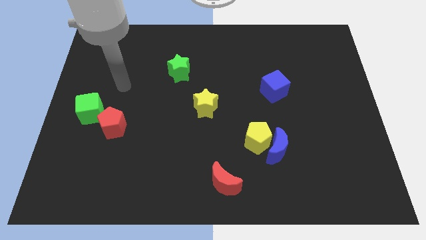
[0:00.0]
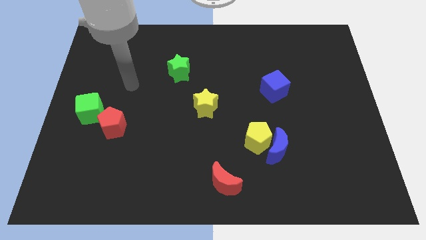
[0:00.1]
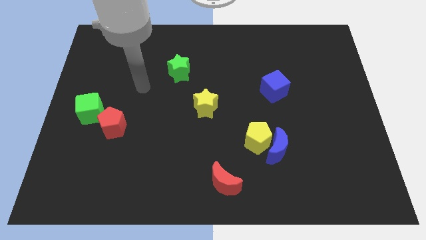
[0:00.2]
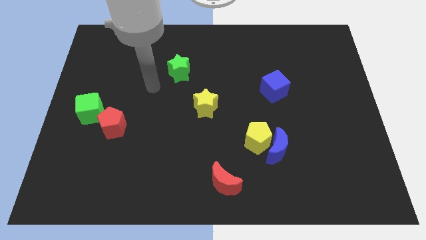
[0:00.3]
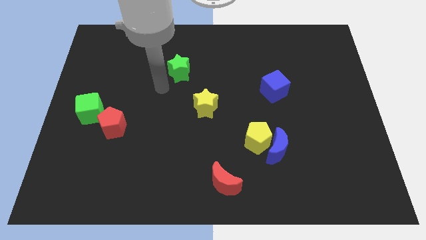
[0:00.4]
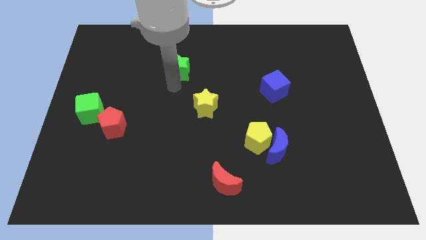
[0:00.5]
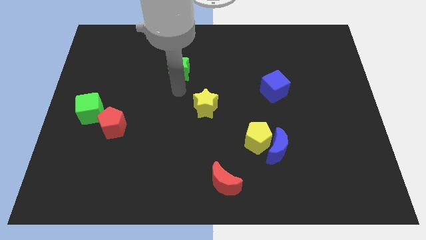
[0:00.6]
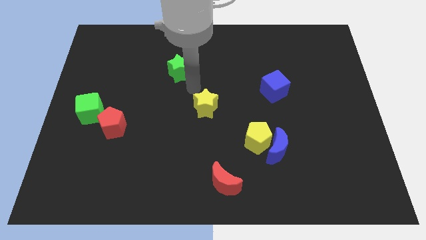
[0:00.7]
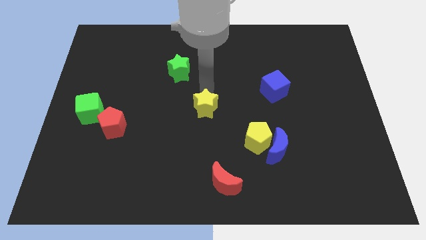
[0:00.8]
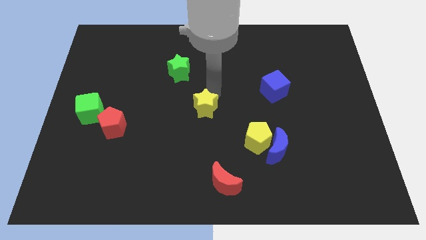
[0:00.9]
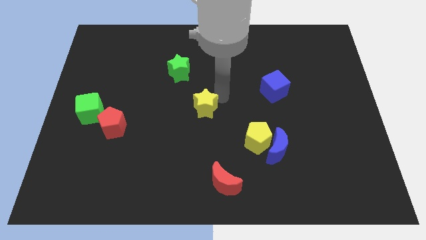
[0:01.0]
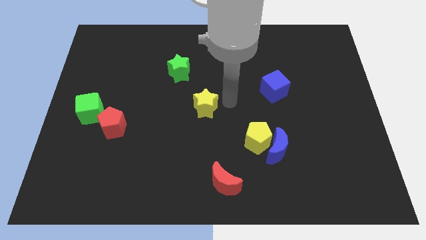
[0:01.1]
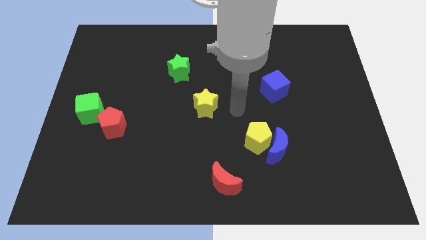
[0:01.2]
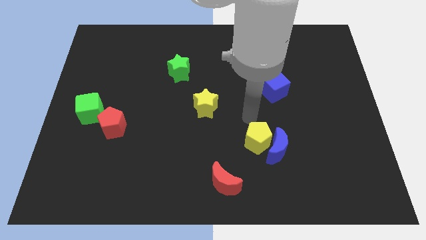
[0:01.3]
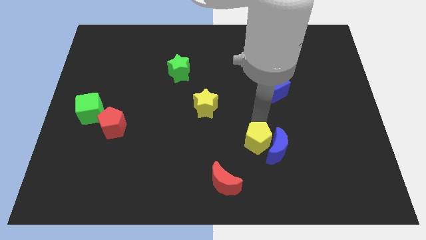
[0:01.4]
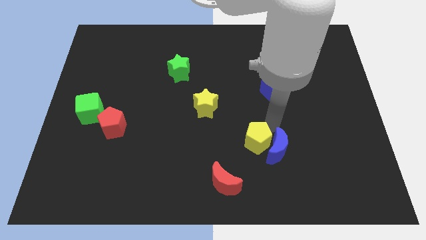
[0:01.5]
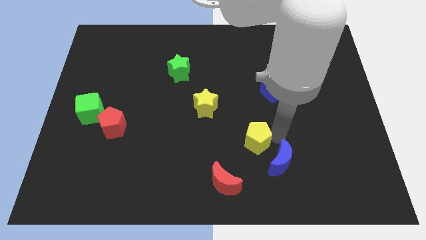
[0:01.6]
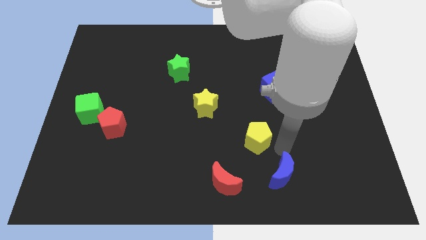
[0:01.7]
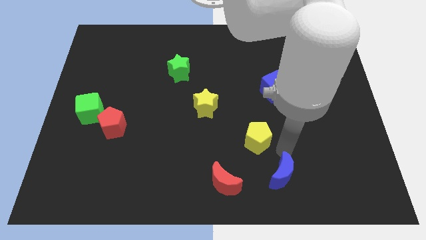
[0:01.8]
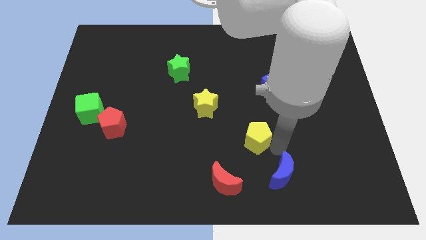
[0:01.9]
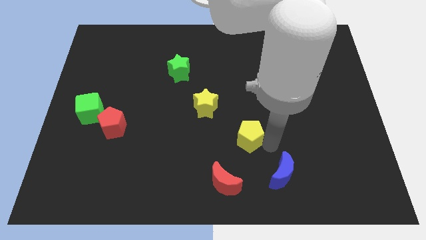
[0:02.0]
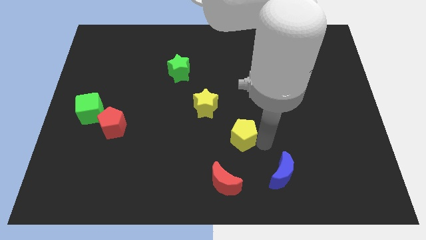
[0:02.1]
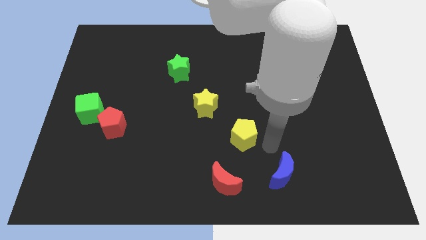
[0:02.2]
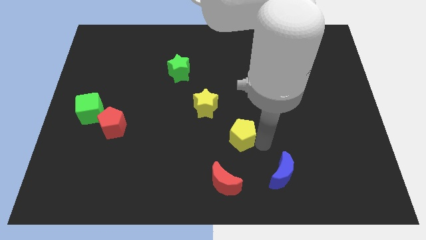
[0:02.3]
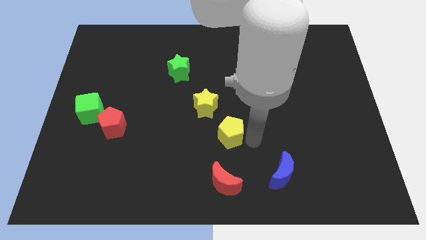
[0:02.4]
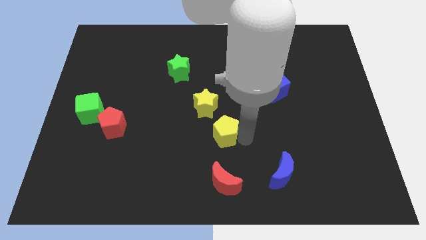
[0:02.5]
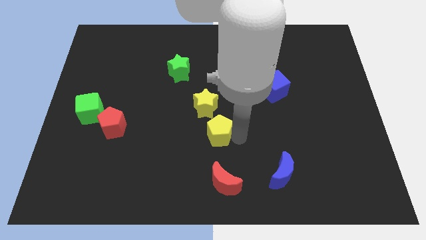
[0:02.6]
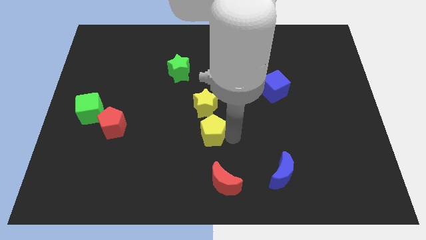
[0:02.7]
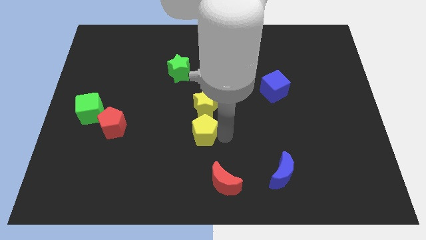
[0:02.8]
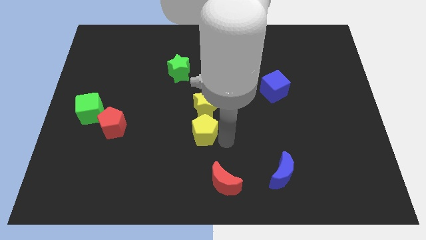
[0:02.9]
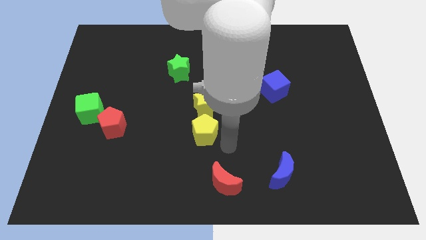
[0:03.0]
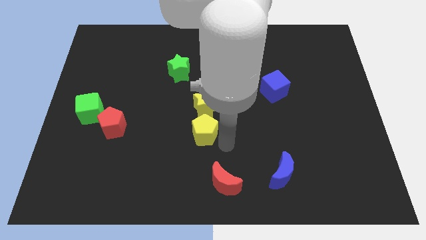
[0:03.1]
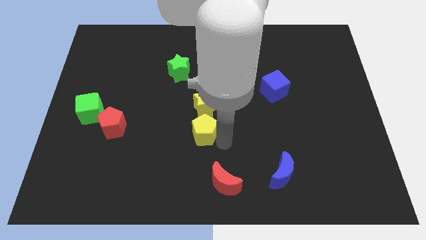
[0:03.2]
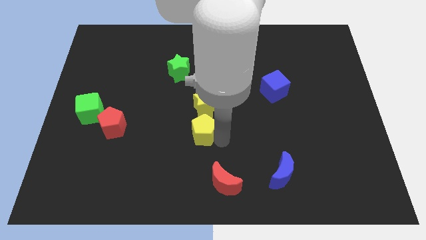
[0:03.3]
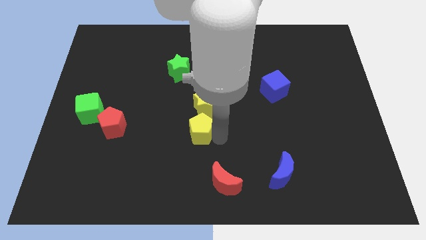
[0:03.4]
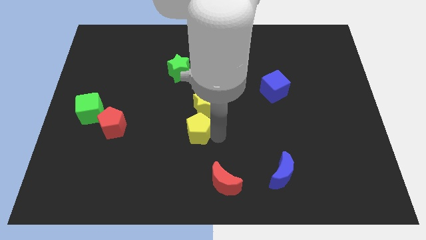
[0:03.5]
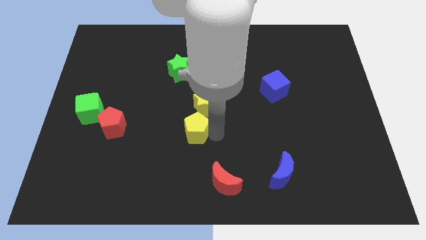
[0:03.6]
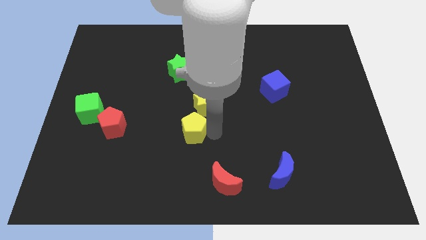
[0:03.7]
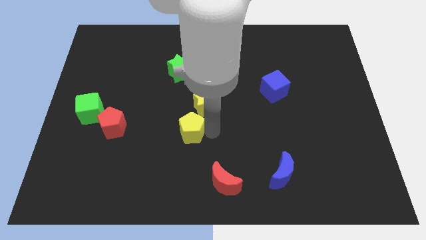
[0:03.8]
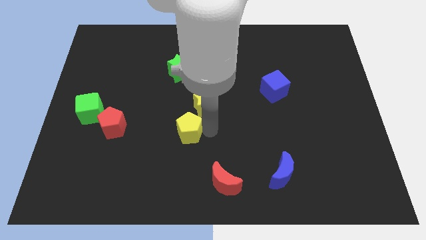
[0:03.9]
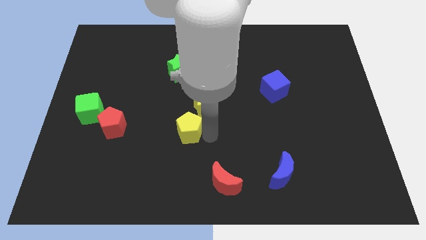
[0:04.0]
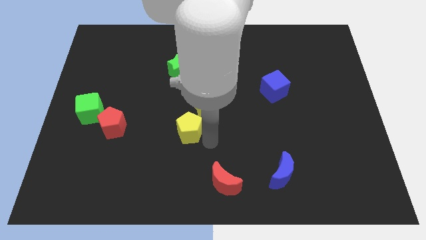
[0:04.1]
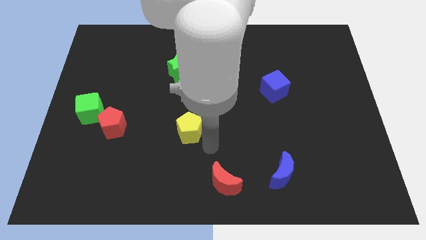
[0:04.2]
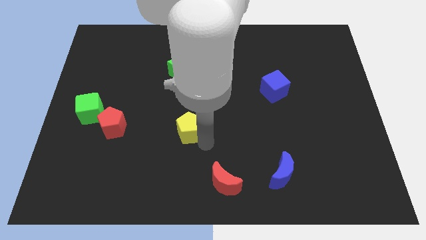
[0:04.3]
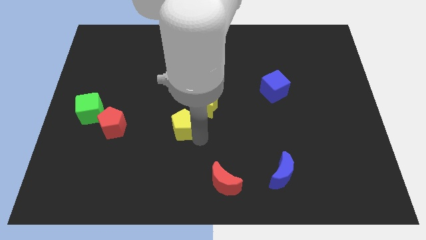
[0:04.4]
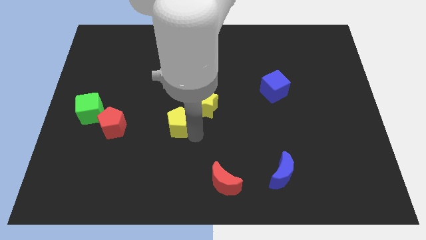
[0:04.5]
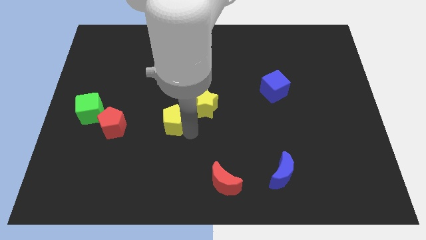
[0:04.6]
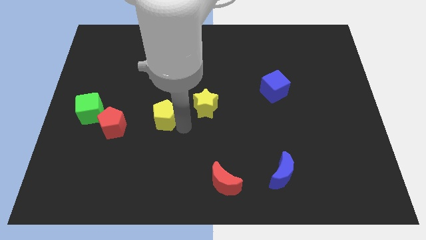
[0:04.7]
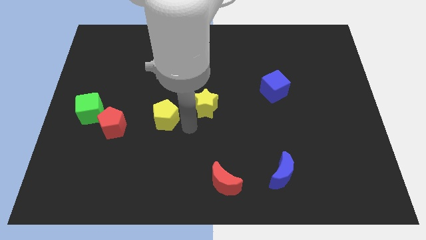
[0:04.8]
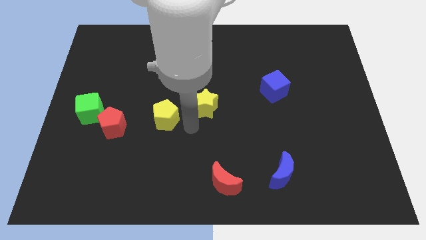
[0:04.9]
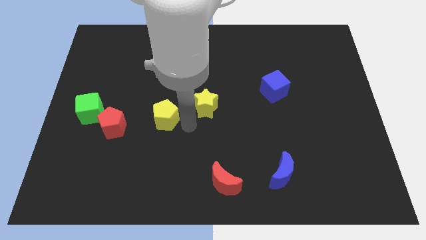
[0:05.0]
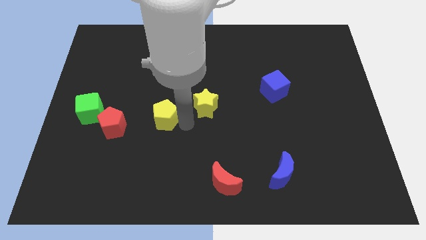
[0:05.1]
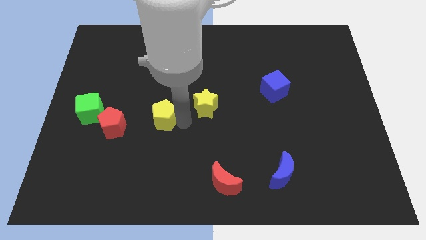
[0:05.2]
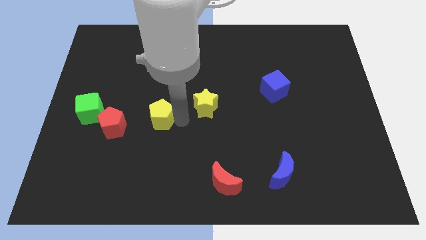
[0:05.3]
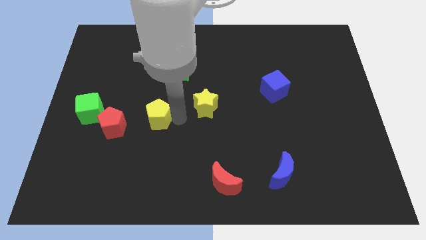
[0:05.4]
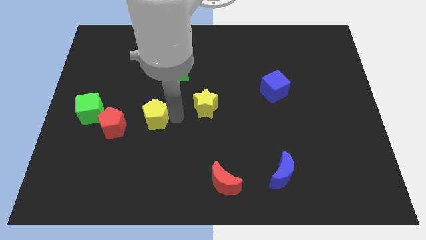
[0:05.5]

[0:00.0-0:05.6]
slide the yellow pentagon diagonally up and to the right of the red pentagon

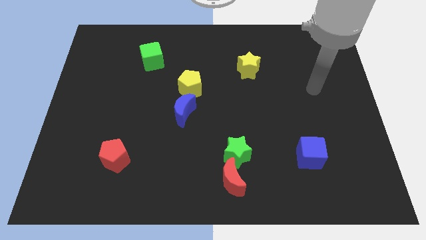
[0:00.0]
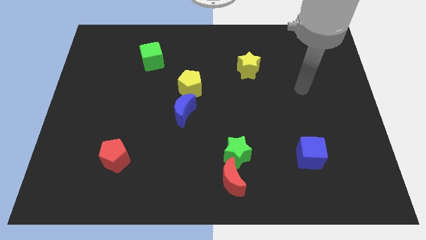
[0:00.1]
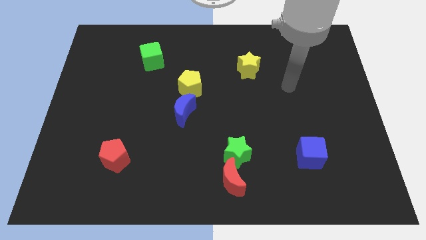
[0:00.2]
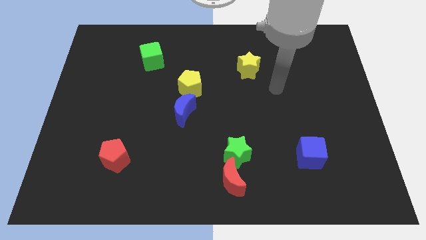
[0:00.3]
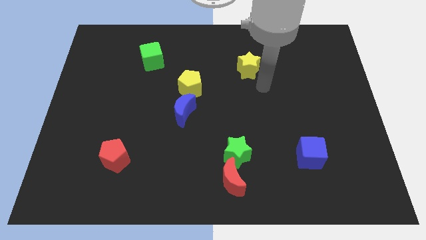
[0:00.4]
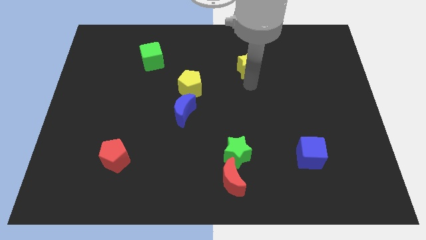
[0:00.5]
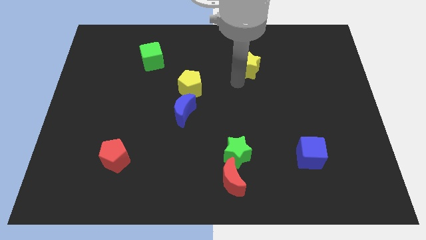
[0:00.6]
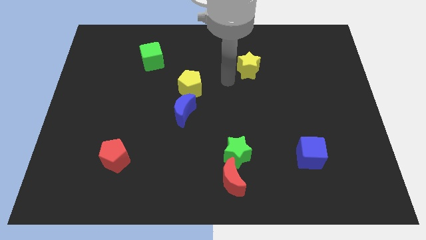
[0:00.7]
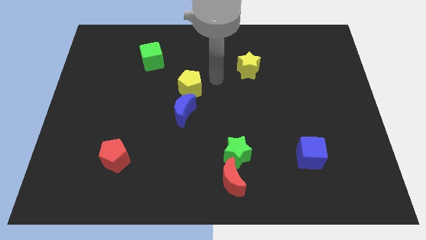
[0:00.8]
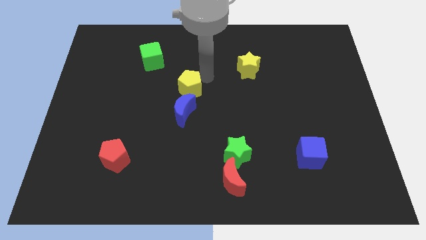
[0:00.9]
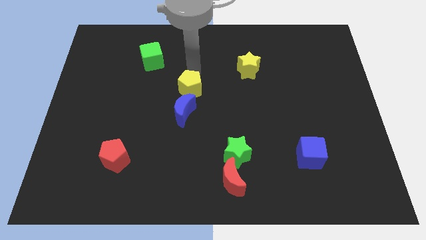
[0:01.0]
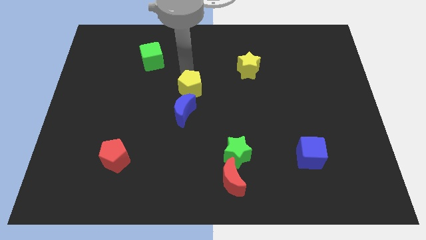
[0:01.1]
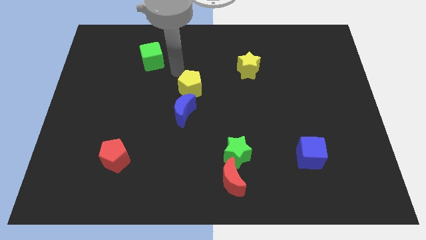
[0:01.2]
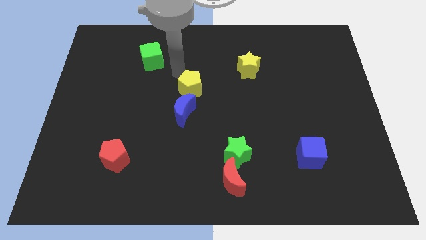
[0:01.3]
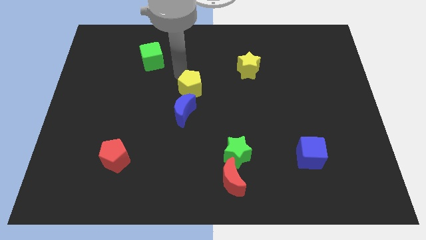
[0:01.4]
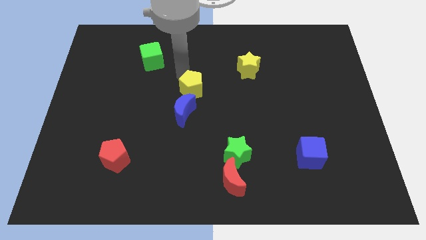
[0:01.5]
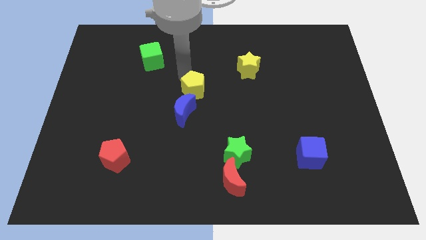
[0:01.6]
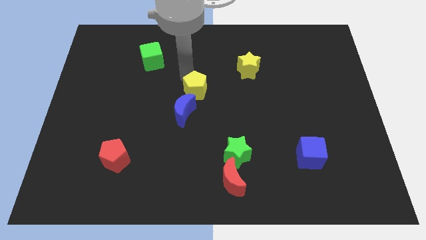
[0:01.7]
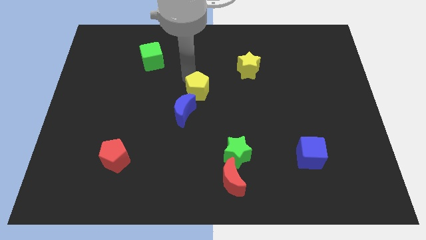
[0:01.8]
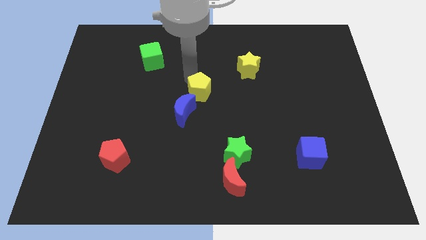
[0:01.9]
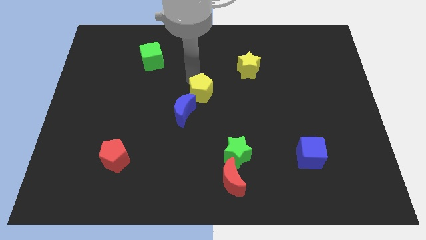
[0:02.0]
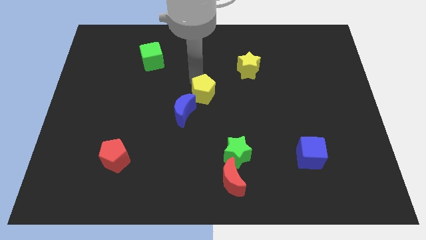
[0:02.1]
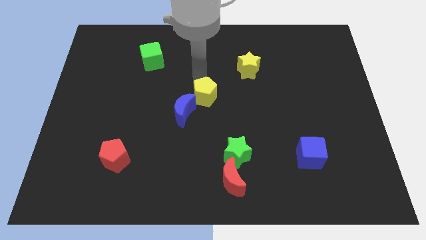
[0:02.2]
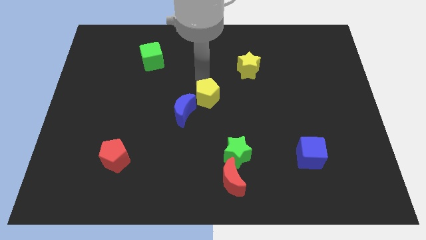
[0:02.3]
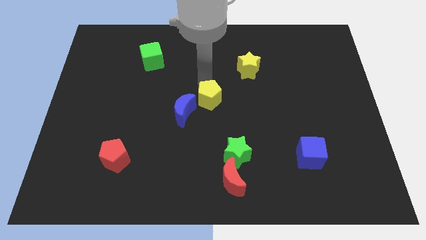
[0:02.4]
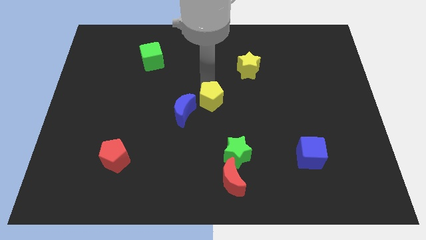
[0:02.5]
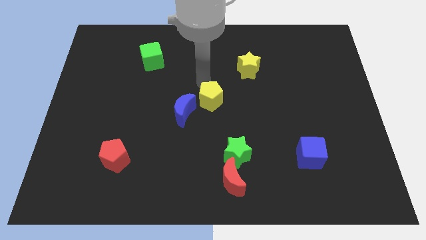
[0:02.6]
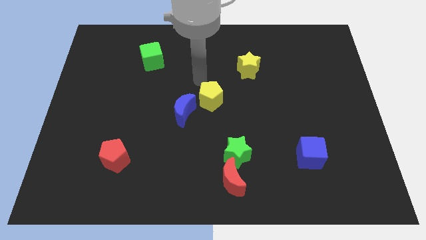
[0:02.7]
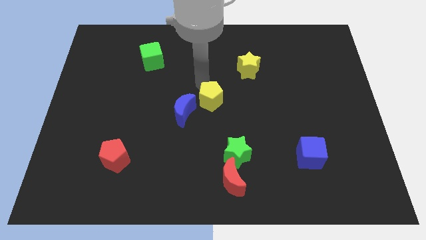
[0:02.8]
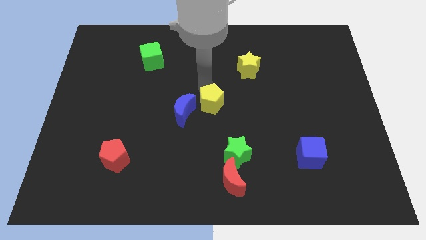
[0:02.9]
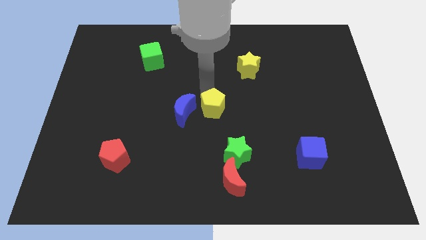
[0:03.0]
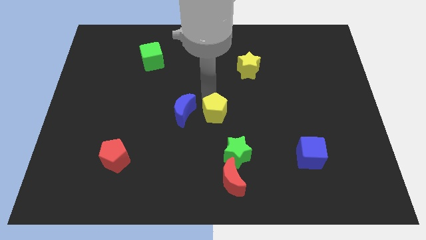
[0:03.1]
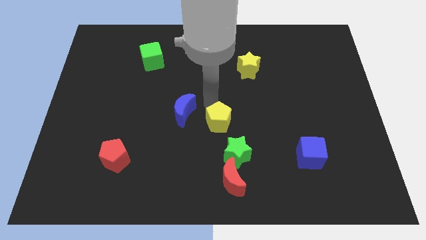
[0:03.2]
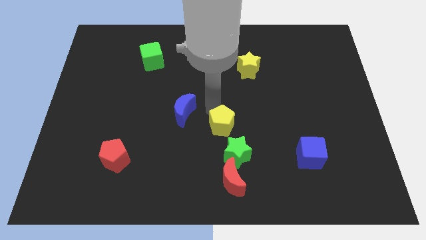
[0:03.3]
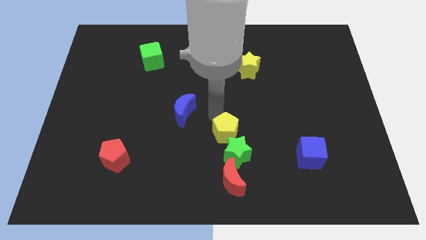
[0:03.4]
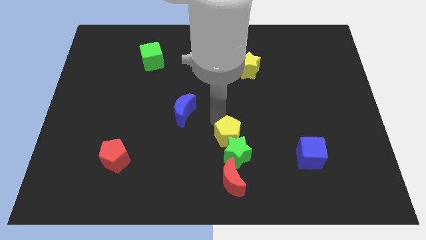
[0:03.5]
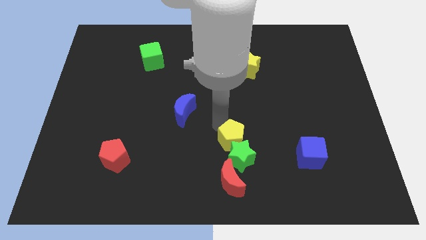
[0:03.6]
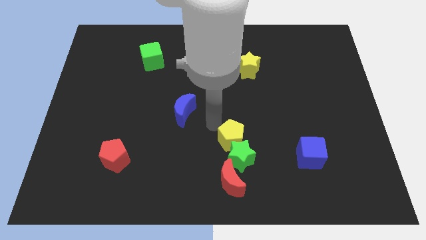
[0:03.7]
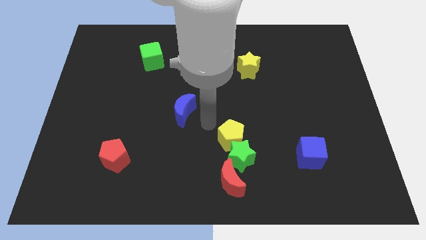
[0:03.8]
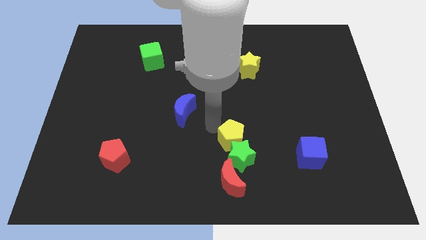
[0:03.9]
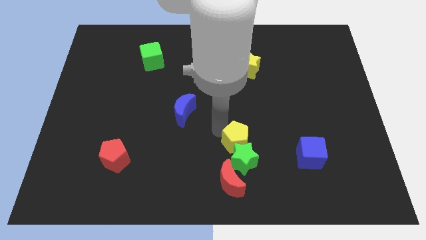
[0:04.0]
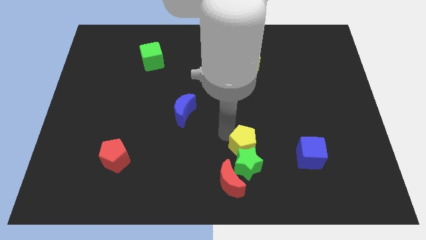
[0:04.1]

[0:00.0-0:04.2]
put the yellow pentagon just left of the blue cube
